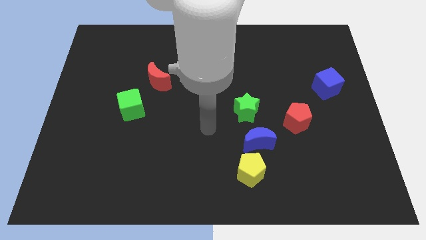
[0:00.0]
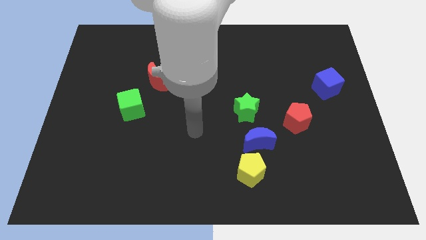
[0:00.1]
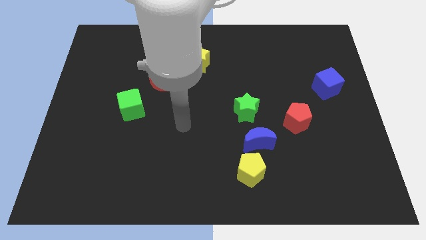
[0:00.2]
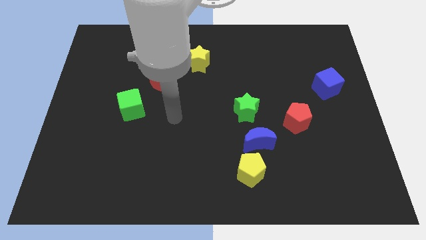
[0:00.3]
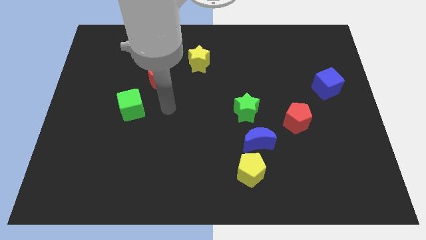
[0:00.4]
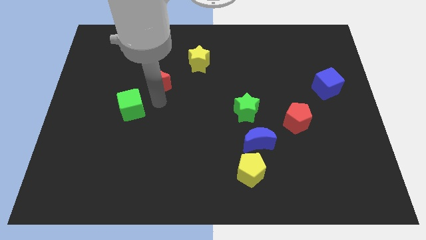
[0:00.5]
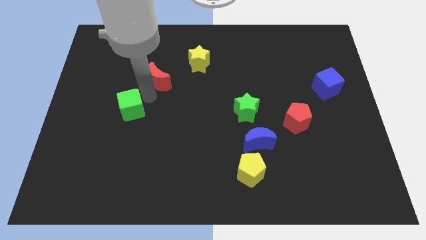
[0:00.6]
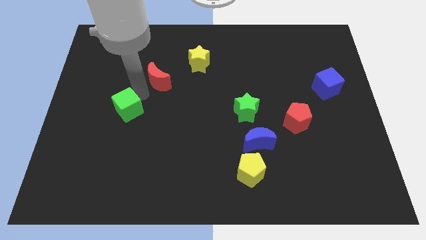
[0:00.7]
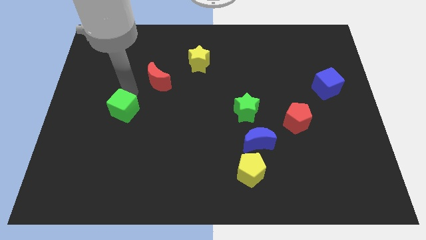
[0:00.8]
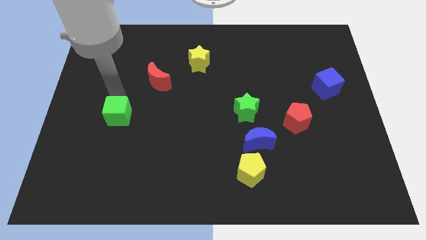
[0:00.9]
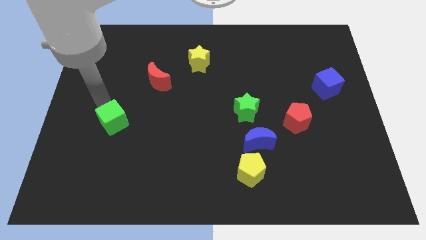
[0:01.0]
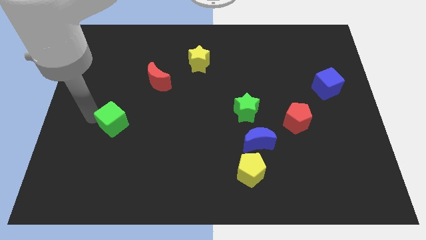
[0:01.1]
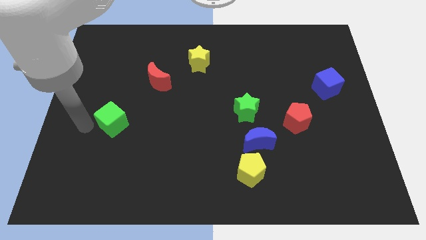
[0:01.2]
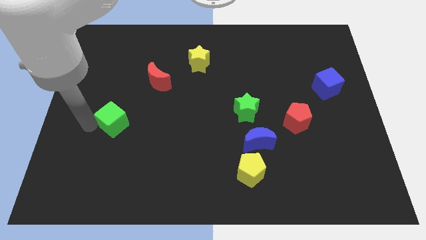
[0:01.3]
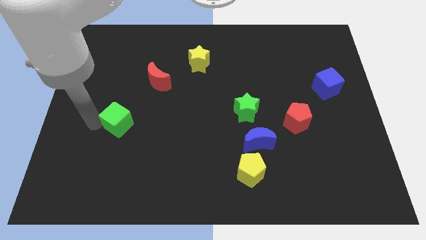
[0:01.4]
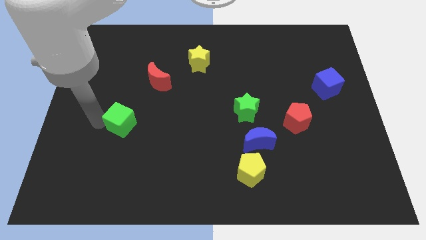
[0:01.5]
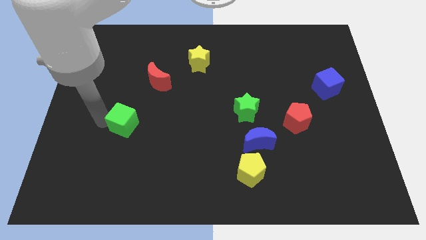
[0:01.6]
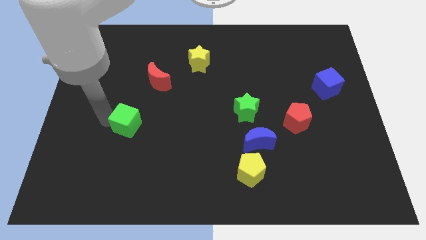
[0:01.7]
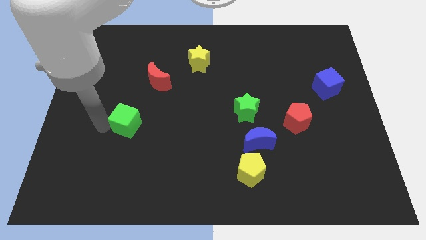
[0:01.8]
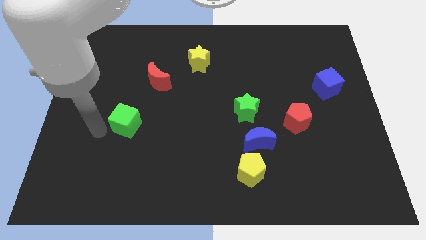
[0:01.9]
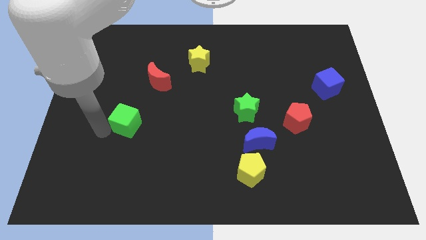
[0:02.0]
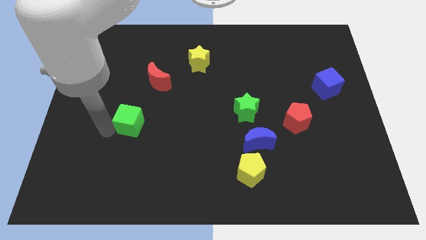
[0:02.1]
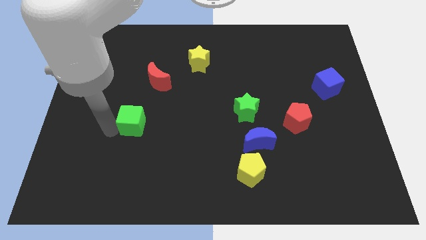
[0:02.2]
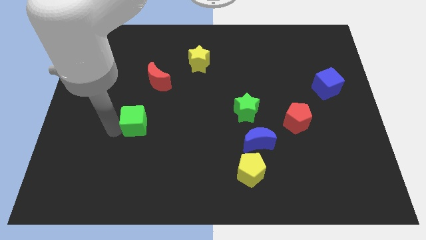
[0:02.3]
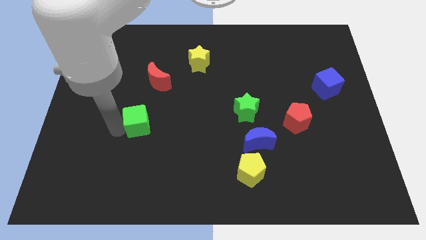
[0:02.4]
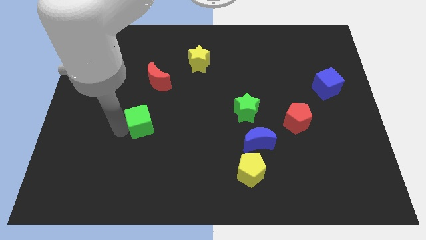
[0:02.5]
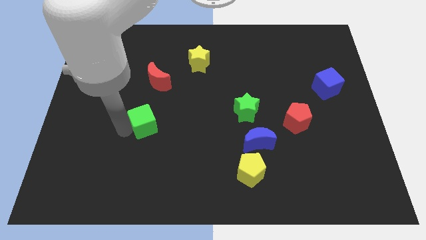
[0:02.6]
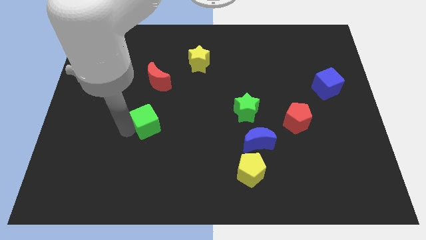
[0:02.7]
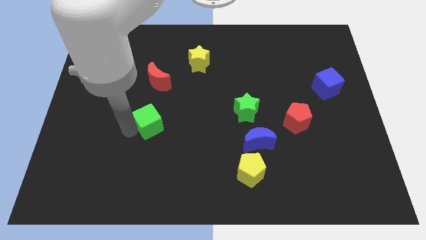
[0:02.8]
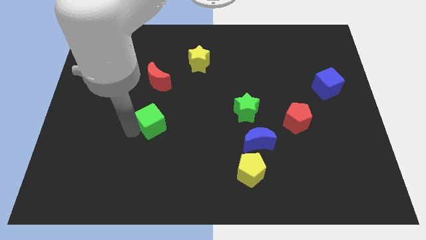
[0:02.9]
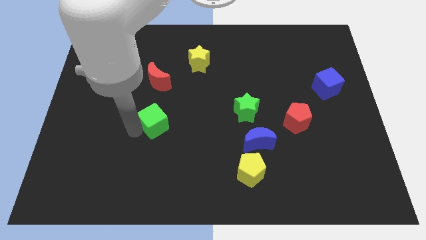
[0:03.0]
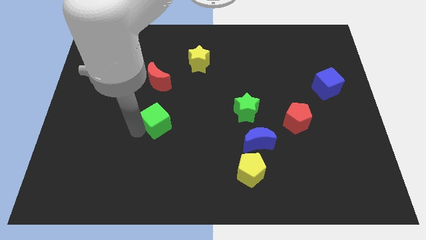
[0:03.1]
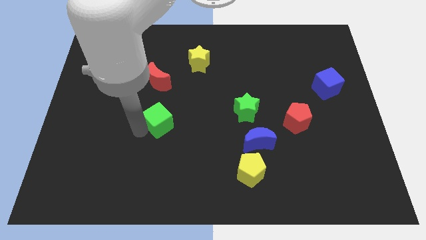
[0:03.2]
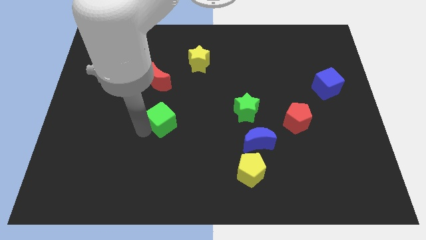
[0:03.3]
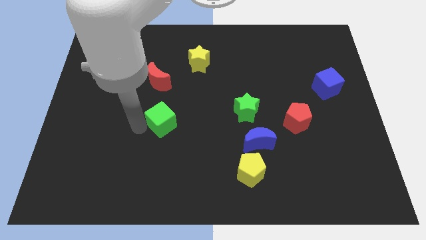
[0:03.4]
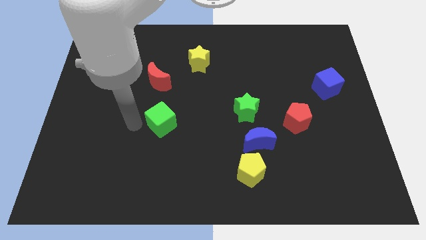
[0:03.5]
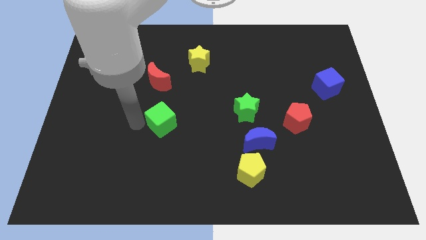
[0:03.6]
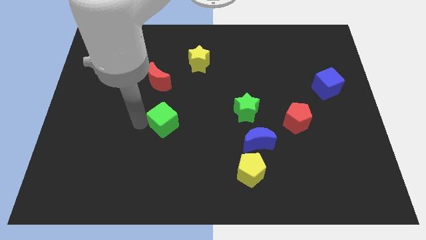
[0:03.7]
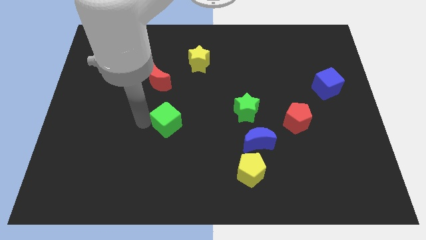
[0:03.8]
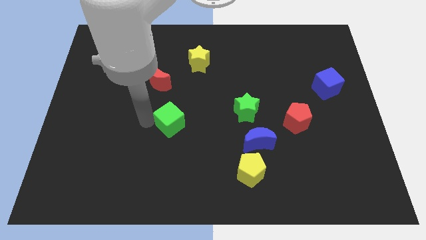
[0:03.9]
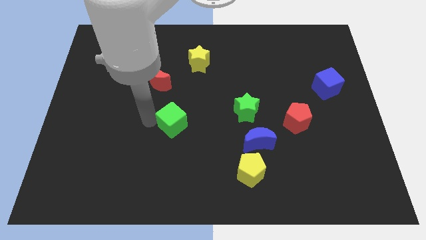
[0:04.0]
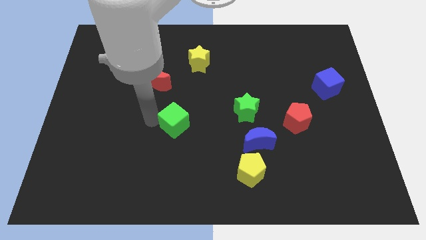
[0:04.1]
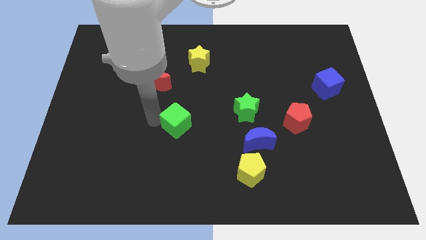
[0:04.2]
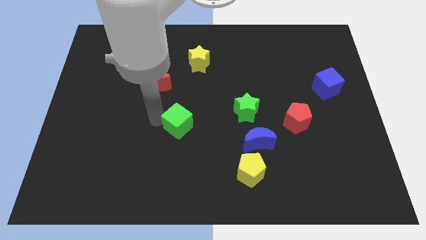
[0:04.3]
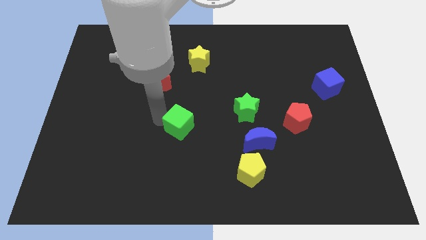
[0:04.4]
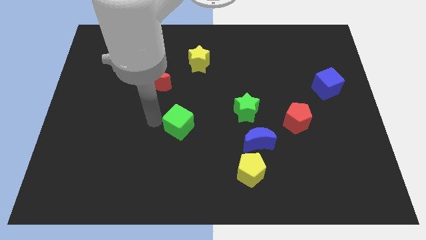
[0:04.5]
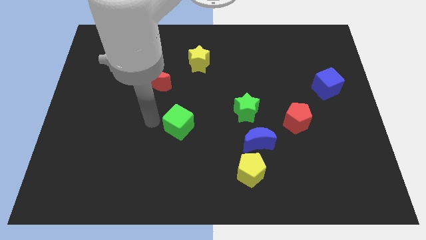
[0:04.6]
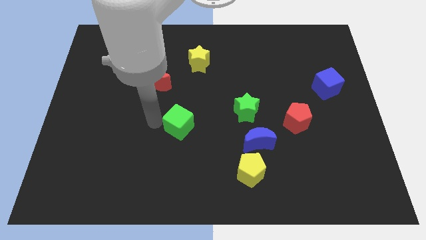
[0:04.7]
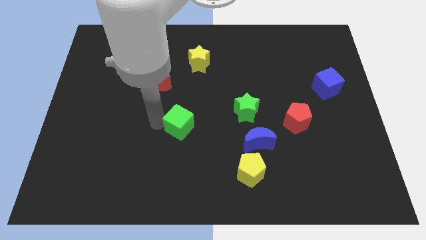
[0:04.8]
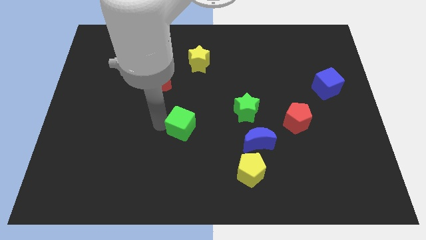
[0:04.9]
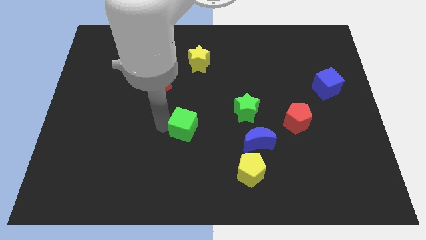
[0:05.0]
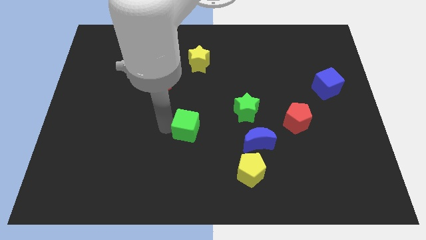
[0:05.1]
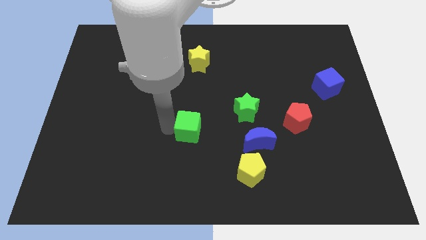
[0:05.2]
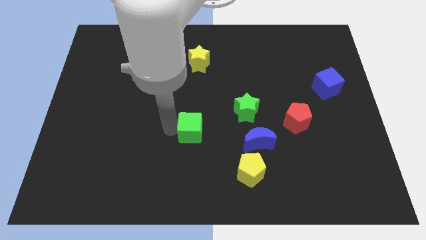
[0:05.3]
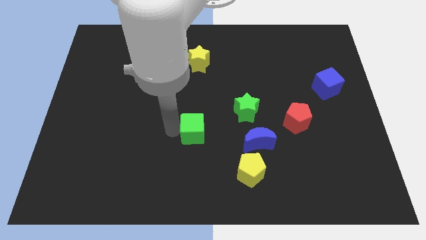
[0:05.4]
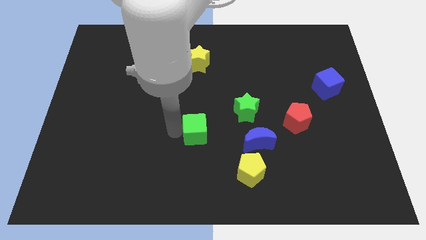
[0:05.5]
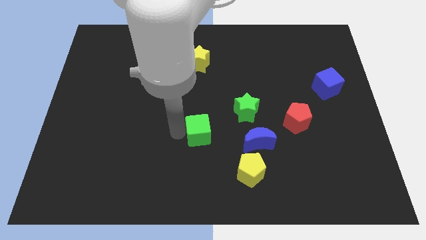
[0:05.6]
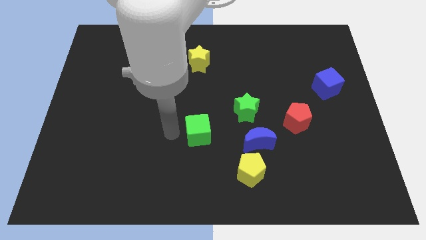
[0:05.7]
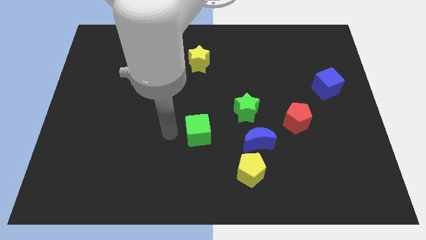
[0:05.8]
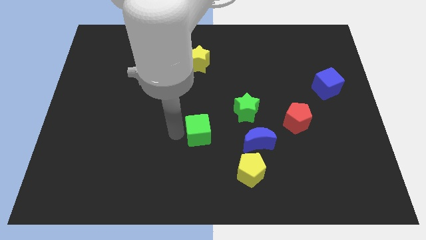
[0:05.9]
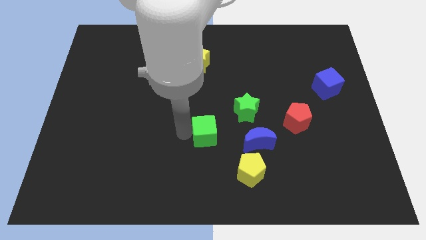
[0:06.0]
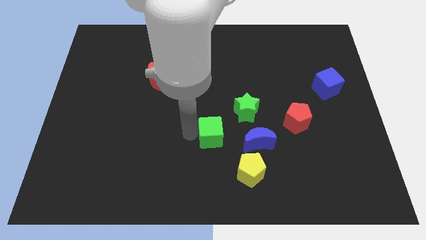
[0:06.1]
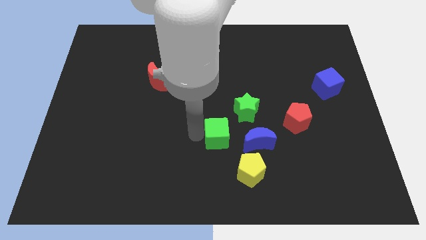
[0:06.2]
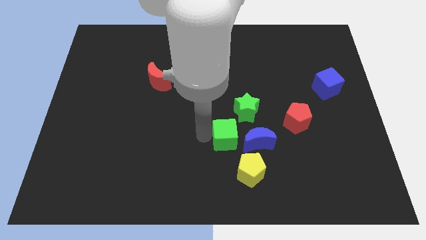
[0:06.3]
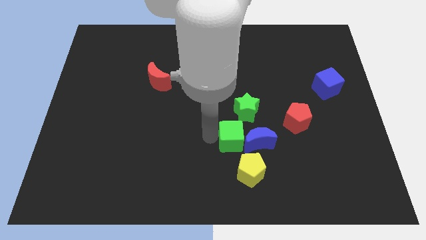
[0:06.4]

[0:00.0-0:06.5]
push the green cube next to the blue moon

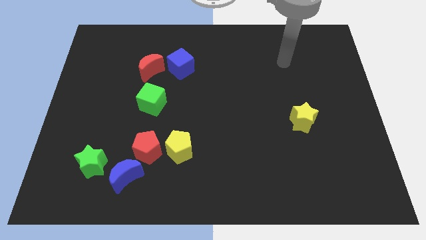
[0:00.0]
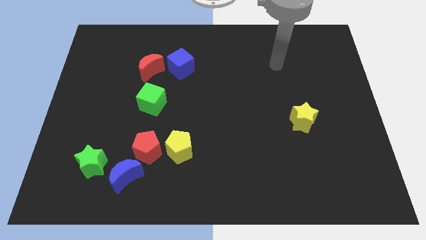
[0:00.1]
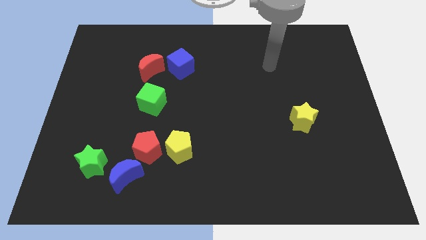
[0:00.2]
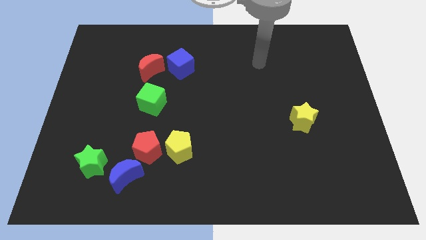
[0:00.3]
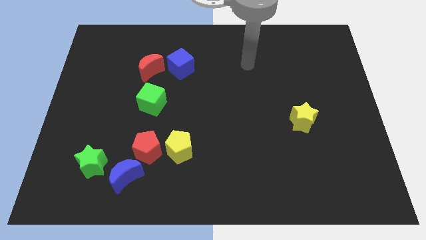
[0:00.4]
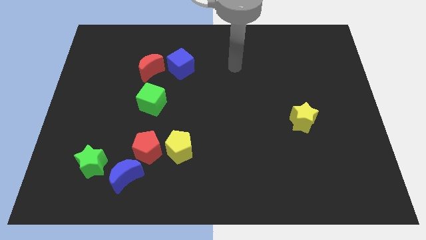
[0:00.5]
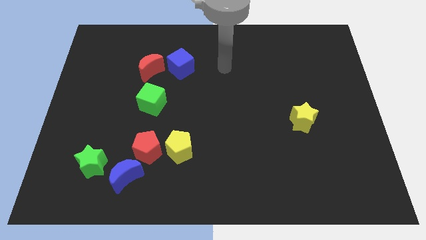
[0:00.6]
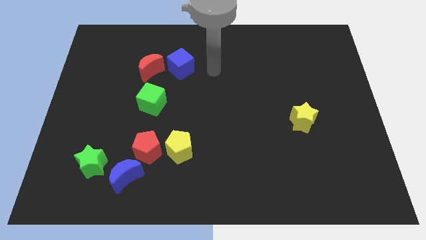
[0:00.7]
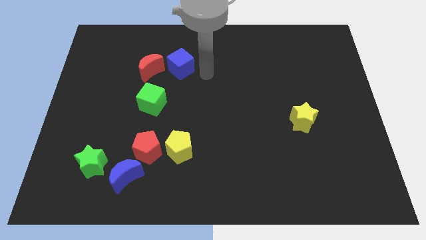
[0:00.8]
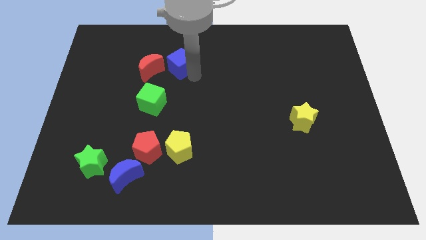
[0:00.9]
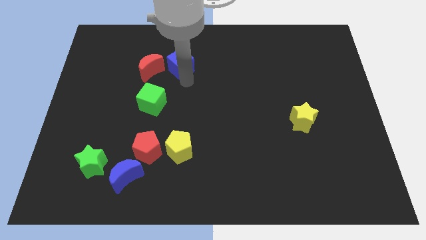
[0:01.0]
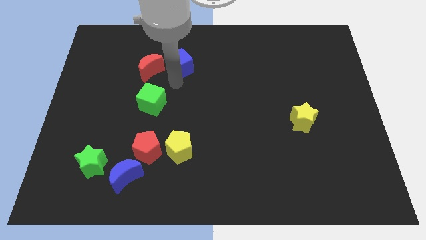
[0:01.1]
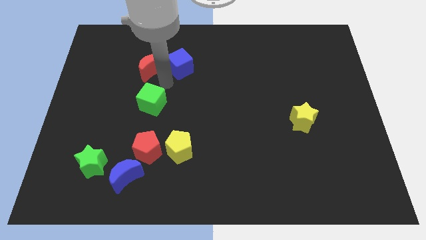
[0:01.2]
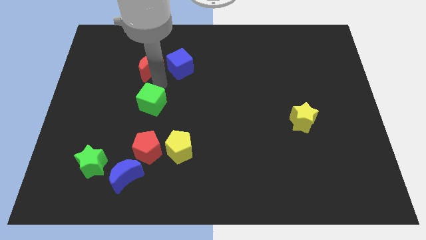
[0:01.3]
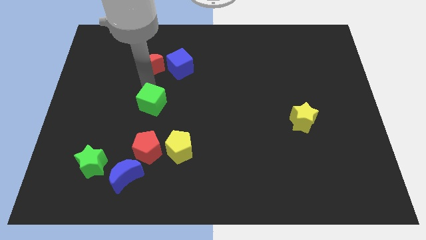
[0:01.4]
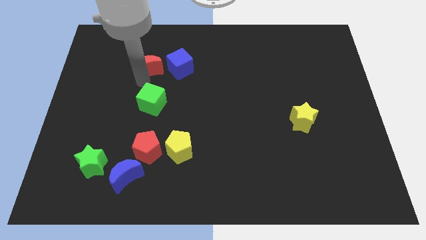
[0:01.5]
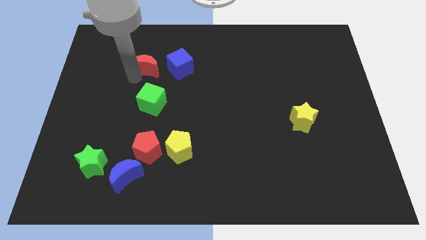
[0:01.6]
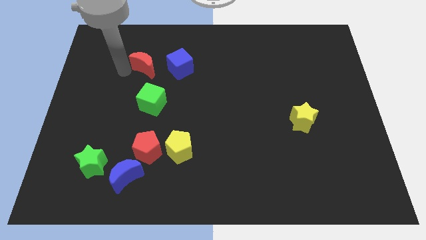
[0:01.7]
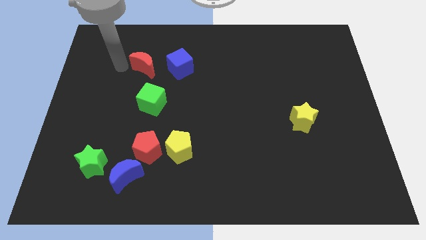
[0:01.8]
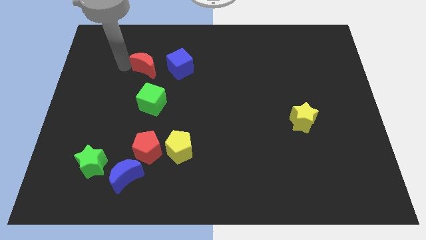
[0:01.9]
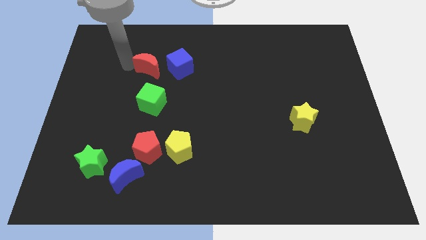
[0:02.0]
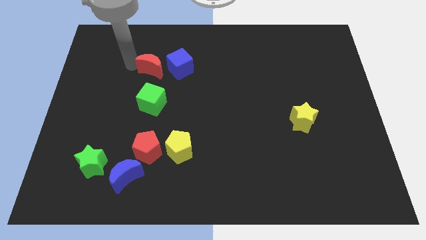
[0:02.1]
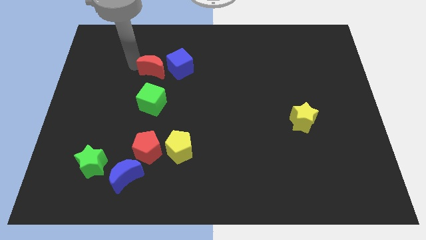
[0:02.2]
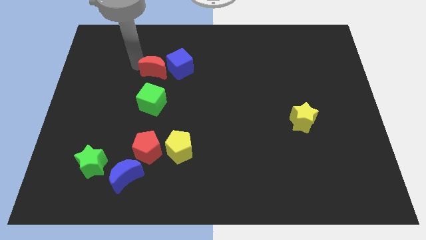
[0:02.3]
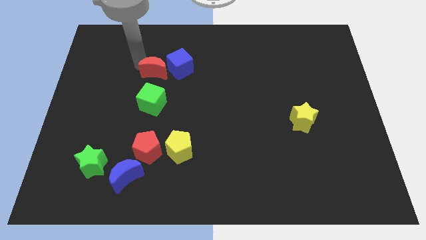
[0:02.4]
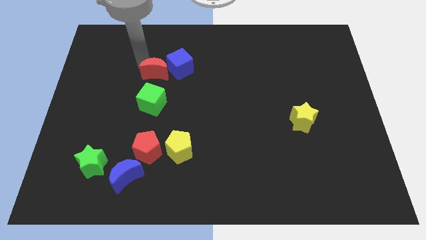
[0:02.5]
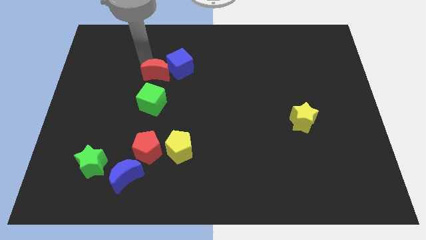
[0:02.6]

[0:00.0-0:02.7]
put the red moon to the blue cube
